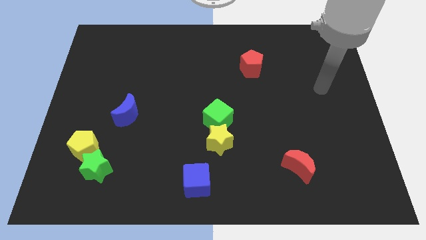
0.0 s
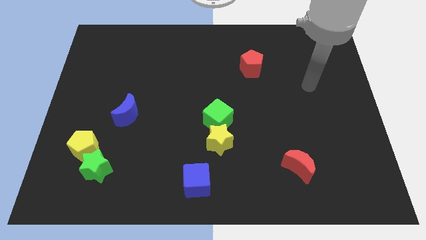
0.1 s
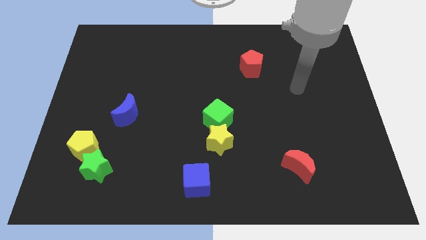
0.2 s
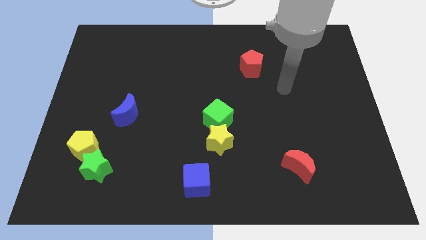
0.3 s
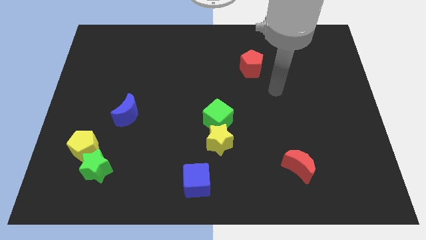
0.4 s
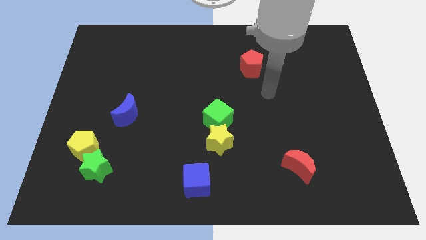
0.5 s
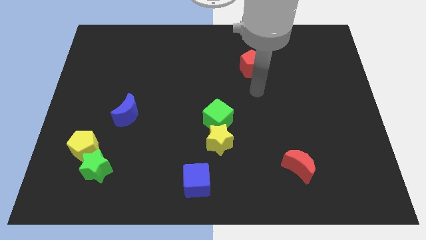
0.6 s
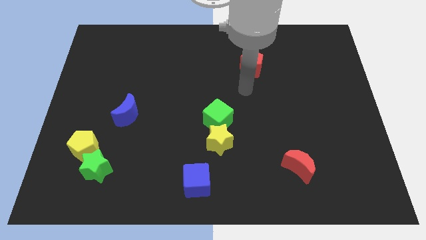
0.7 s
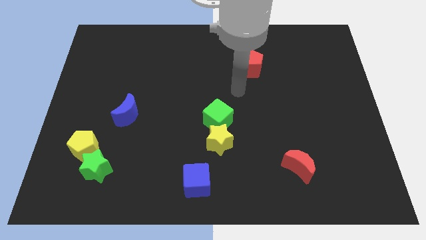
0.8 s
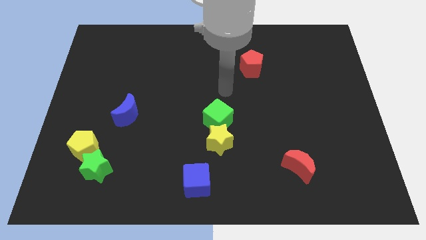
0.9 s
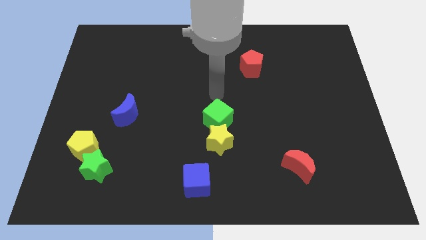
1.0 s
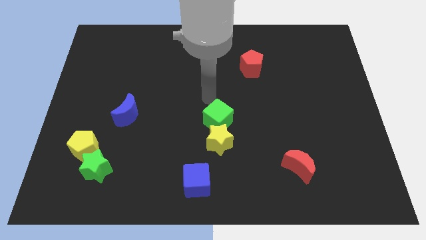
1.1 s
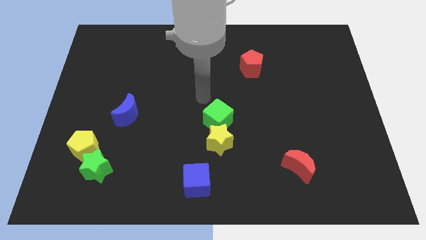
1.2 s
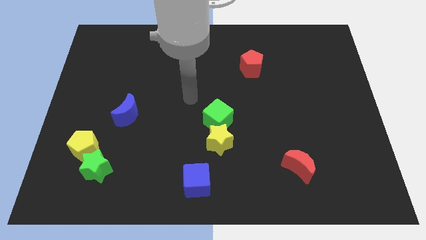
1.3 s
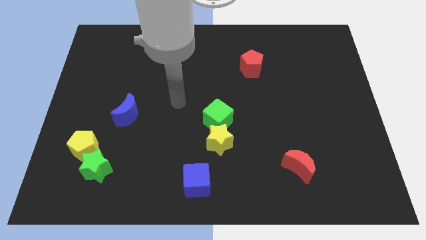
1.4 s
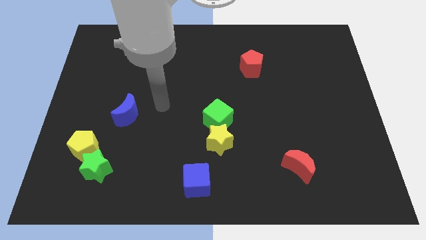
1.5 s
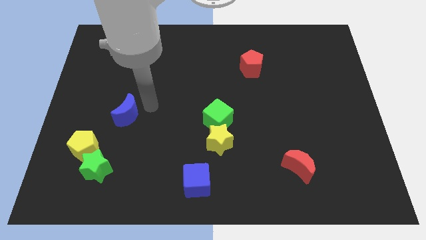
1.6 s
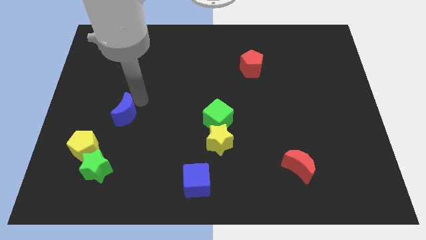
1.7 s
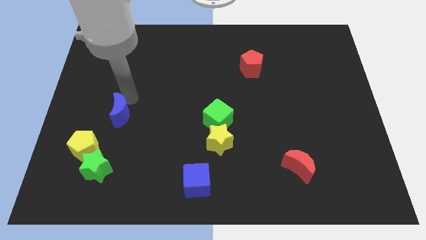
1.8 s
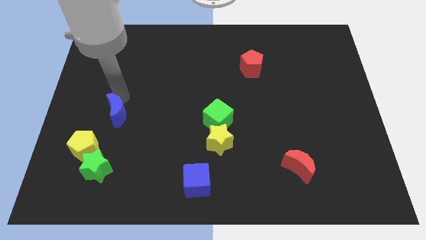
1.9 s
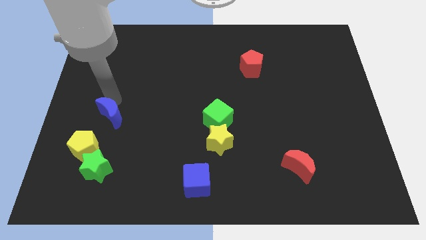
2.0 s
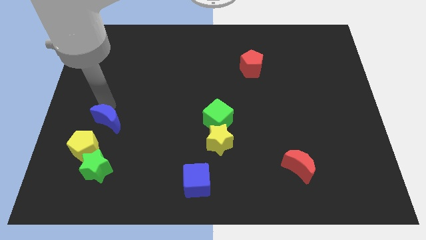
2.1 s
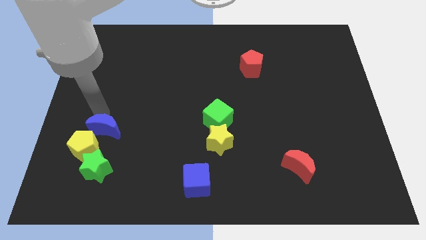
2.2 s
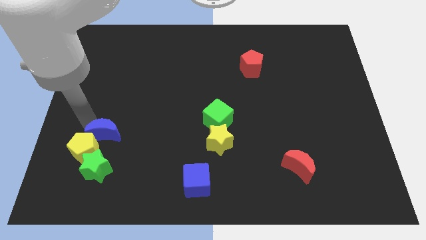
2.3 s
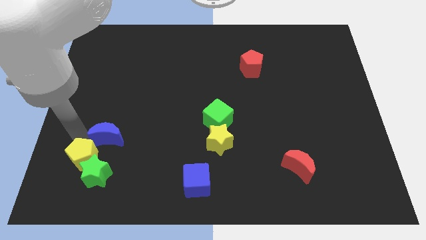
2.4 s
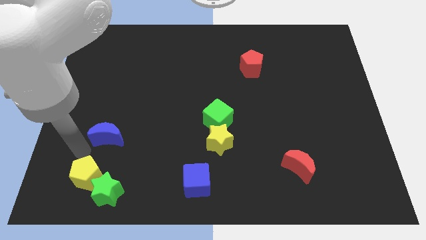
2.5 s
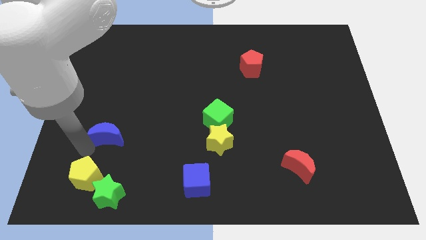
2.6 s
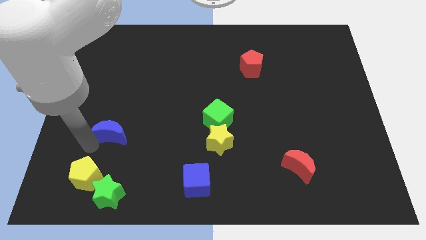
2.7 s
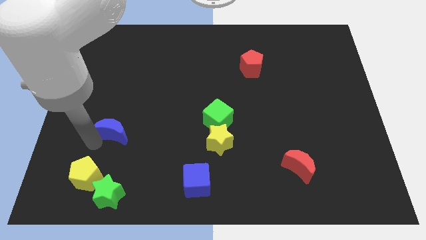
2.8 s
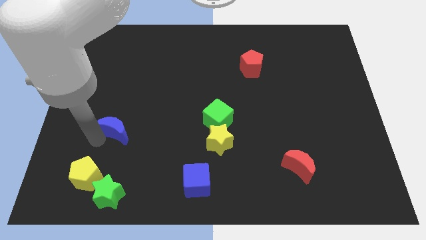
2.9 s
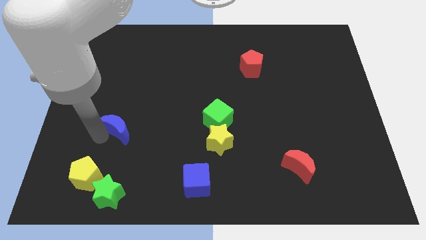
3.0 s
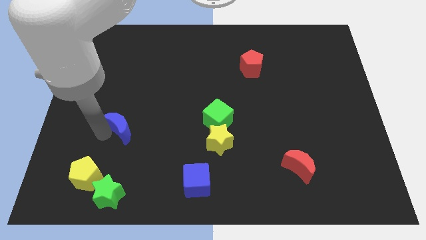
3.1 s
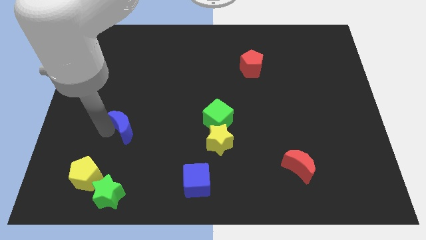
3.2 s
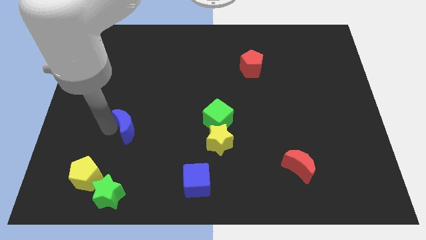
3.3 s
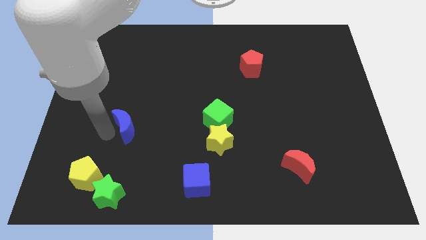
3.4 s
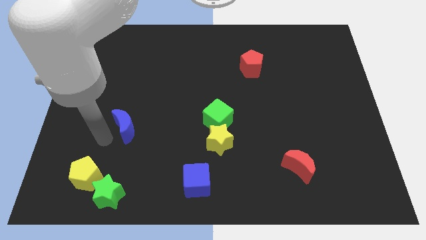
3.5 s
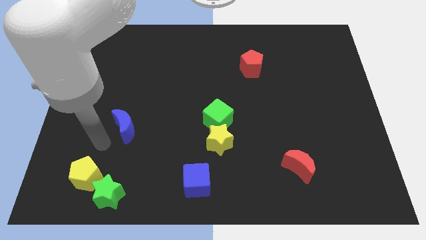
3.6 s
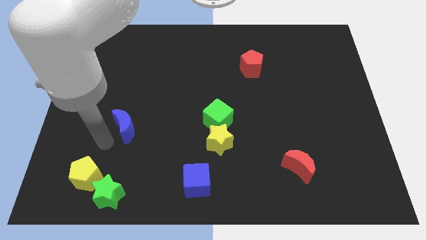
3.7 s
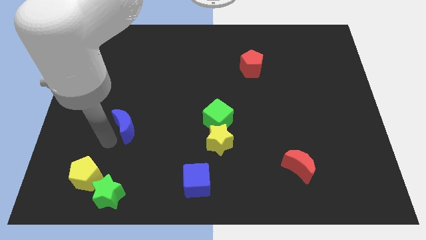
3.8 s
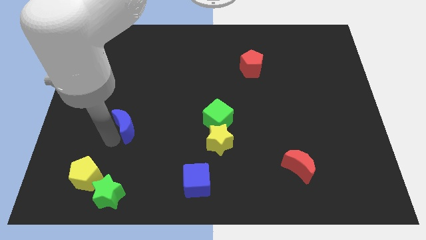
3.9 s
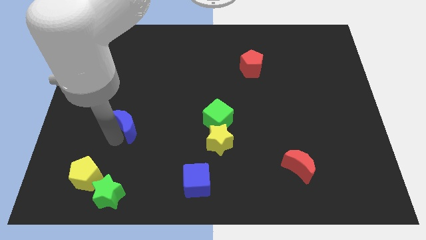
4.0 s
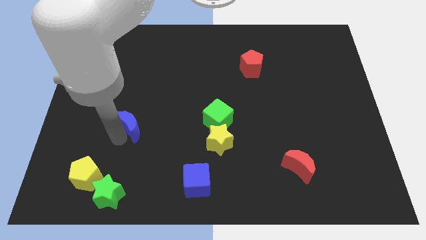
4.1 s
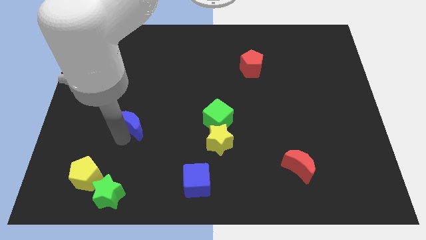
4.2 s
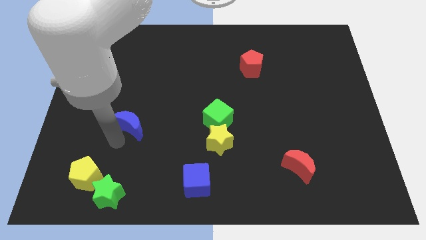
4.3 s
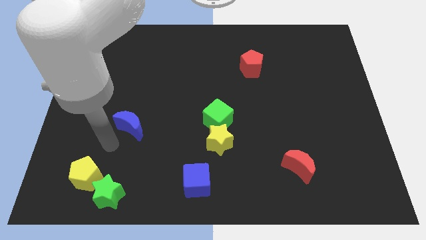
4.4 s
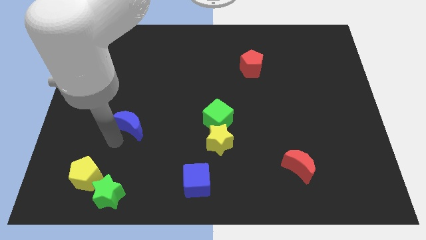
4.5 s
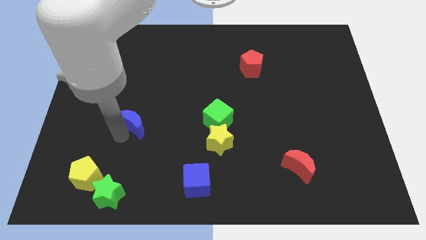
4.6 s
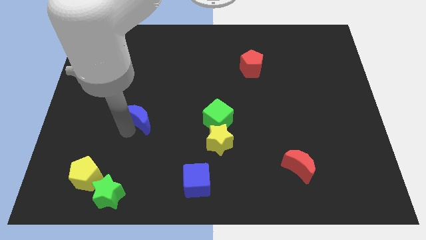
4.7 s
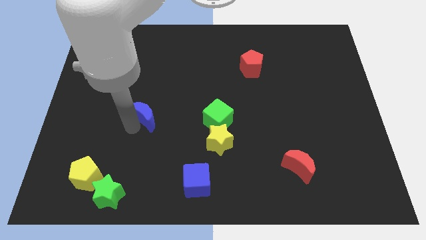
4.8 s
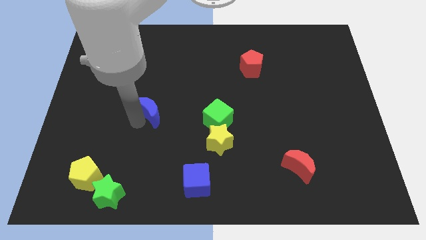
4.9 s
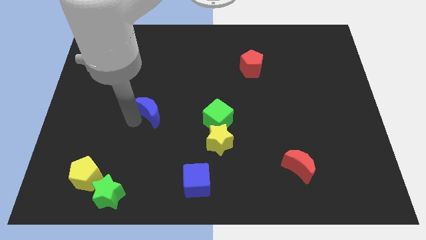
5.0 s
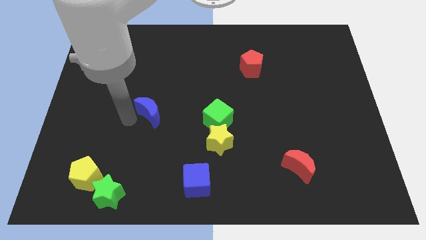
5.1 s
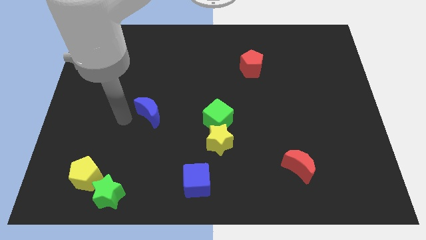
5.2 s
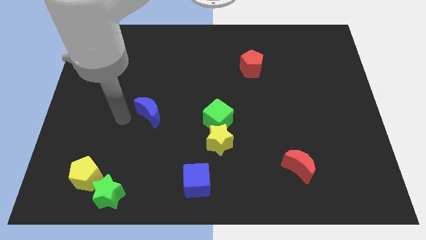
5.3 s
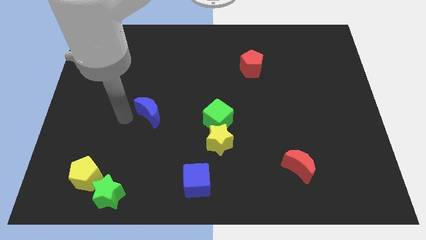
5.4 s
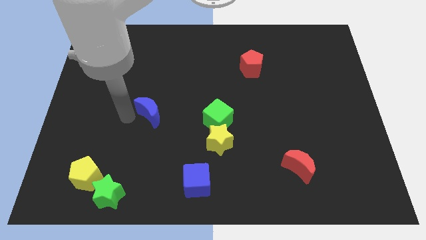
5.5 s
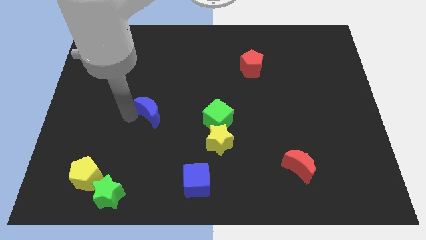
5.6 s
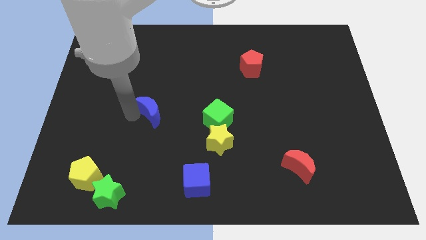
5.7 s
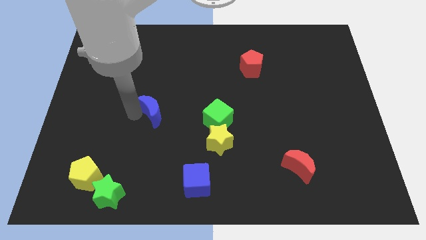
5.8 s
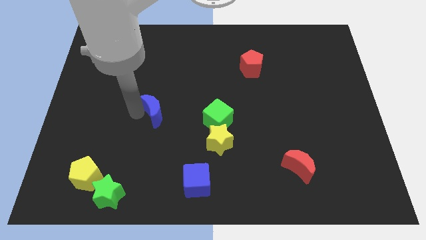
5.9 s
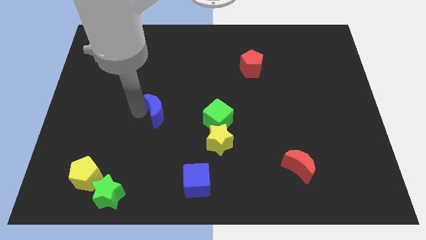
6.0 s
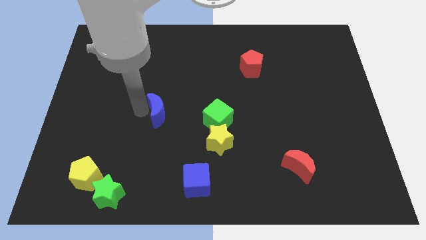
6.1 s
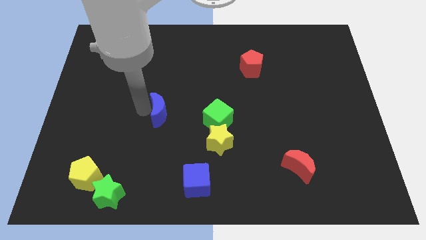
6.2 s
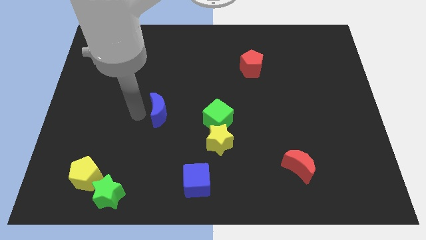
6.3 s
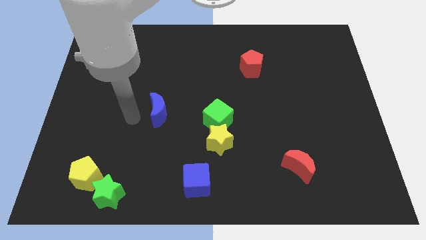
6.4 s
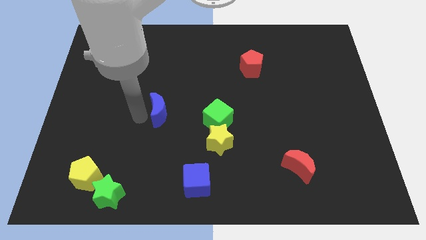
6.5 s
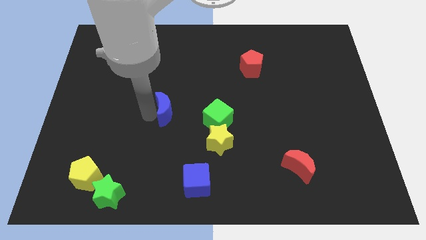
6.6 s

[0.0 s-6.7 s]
put the blue moon to the center of the board
